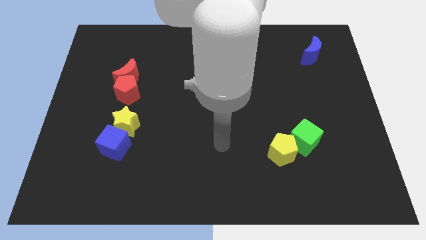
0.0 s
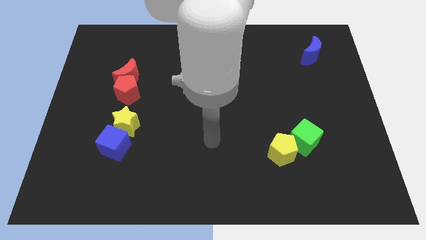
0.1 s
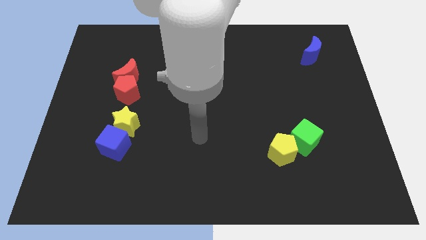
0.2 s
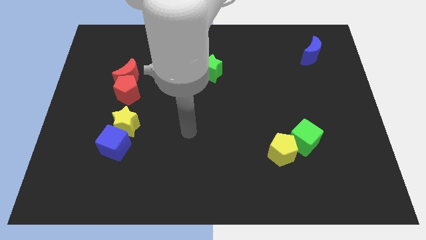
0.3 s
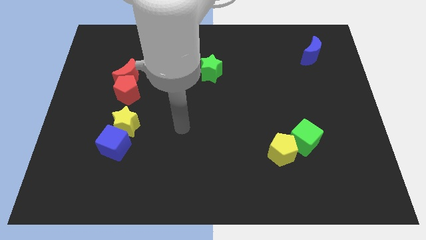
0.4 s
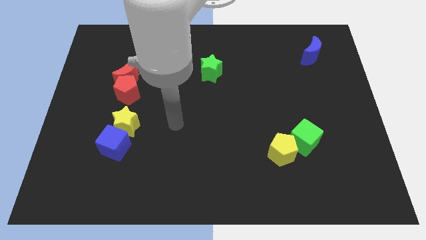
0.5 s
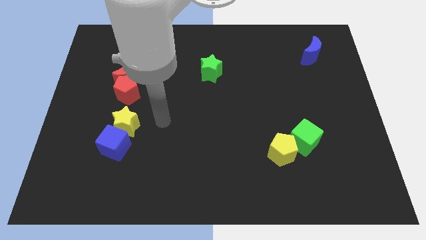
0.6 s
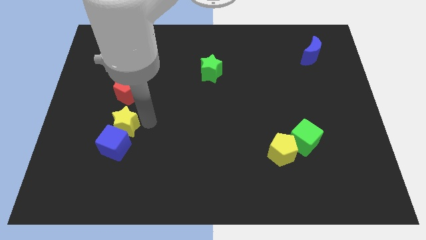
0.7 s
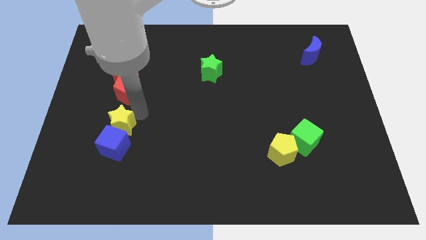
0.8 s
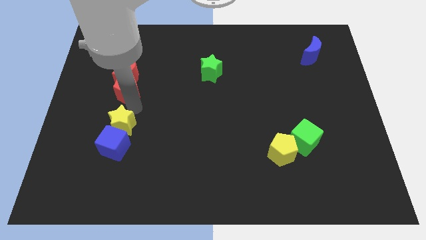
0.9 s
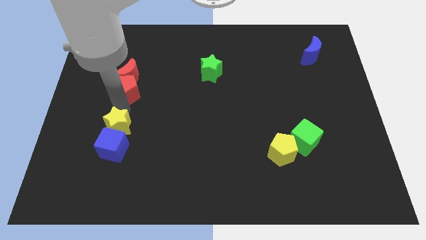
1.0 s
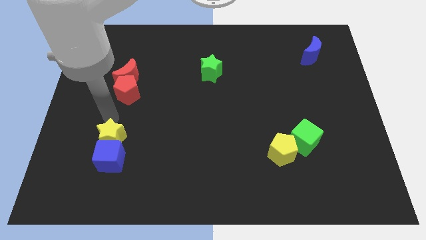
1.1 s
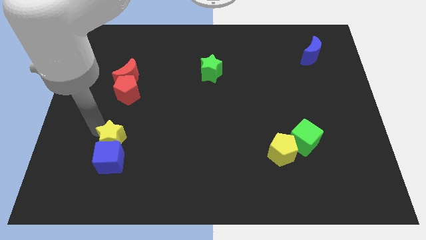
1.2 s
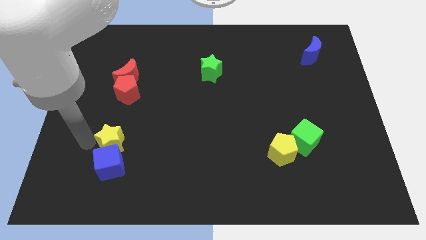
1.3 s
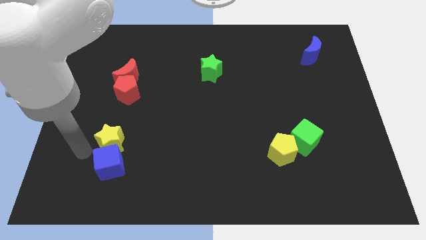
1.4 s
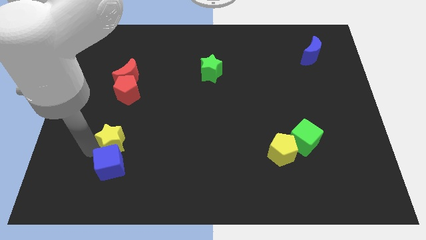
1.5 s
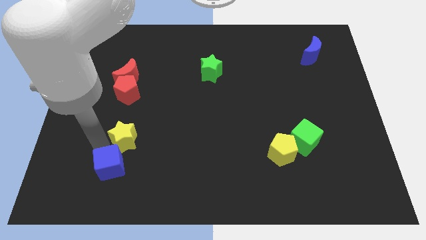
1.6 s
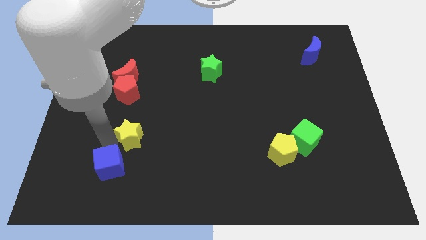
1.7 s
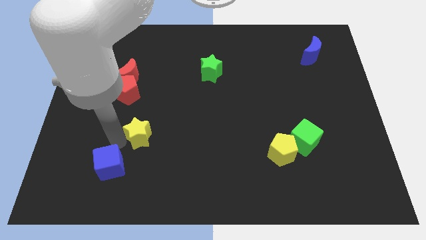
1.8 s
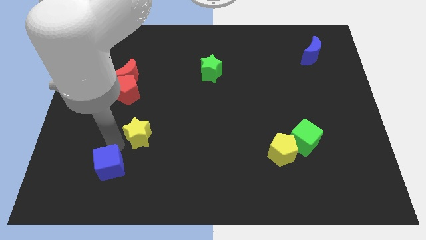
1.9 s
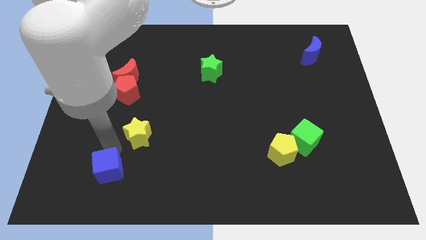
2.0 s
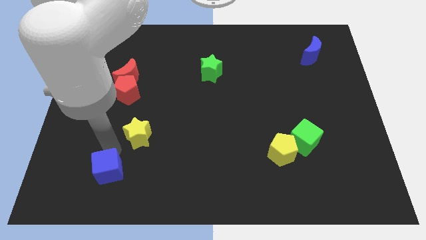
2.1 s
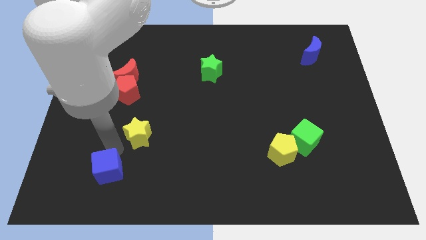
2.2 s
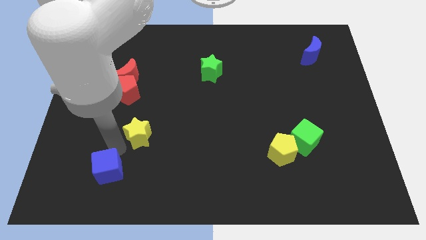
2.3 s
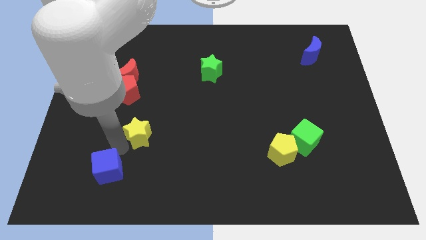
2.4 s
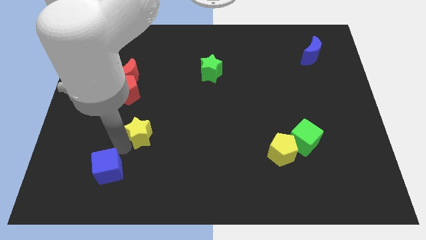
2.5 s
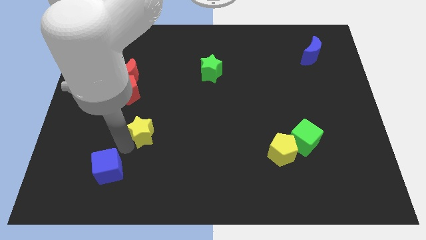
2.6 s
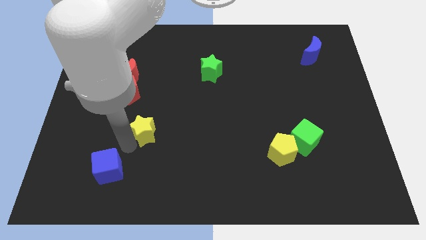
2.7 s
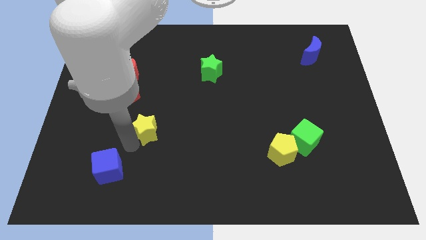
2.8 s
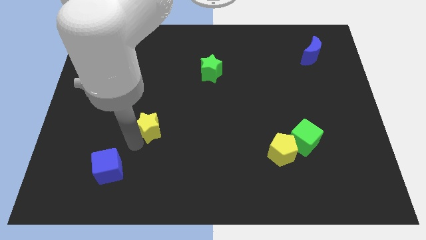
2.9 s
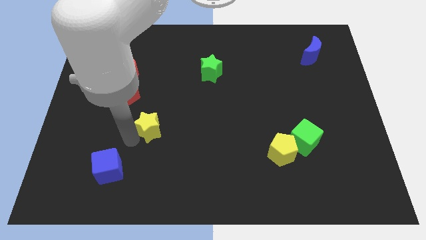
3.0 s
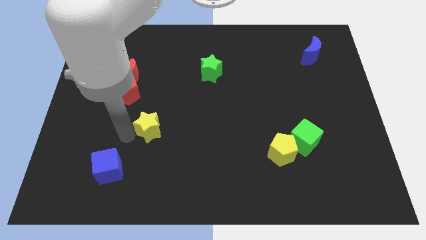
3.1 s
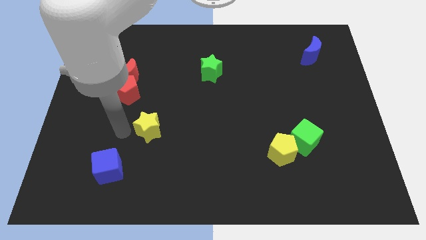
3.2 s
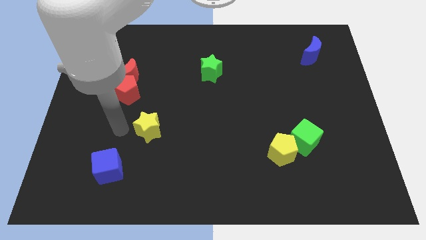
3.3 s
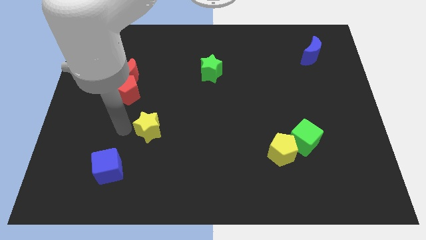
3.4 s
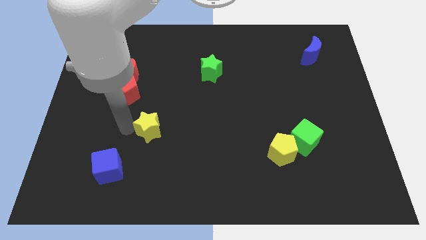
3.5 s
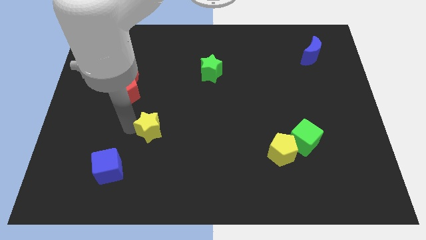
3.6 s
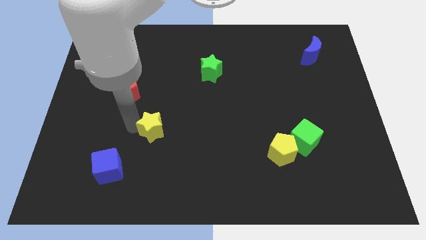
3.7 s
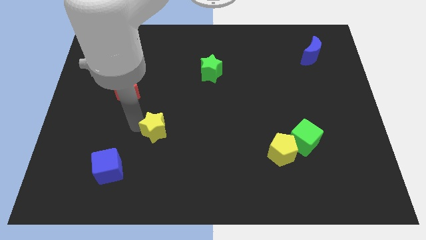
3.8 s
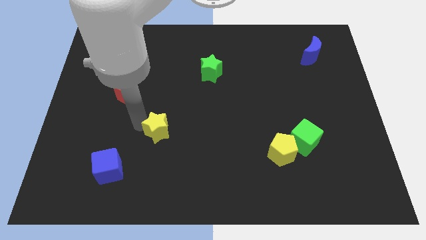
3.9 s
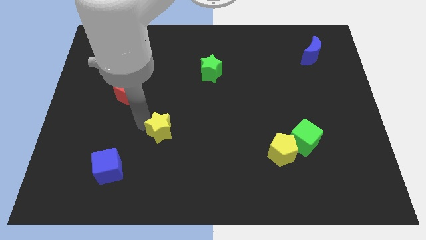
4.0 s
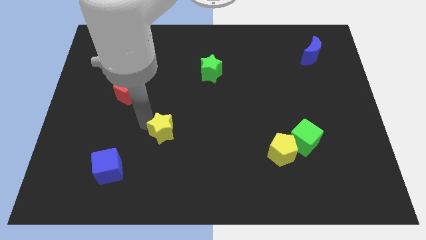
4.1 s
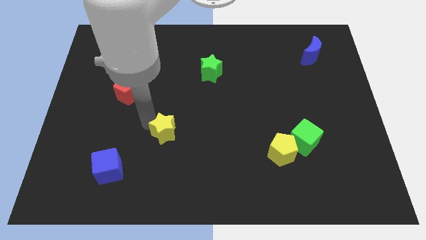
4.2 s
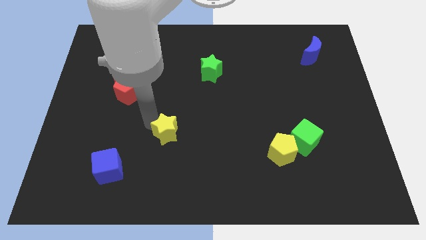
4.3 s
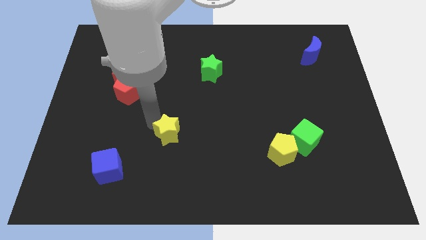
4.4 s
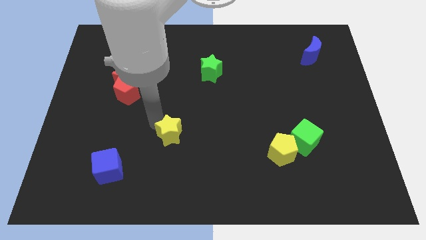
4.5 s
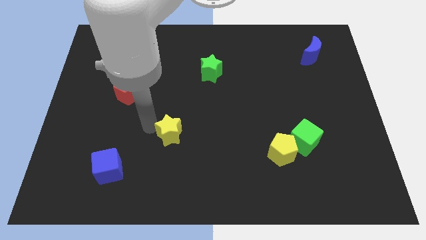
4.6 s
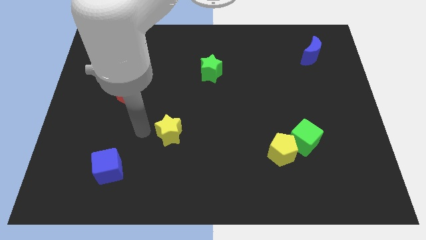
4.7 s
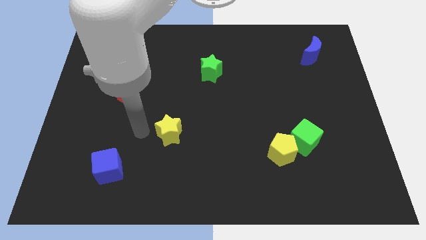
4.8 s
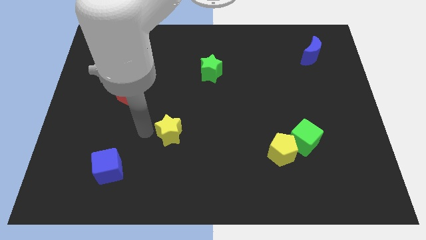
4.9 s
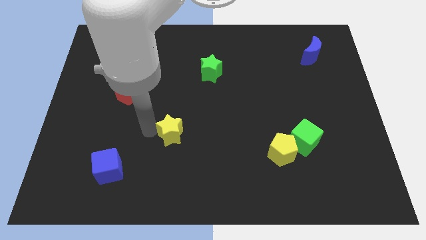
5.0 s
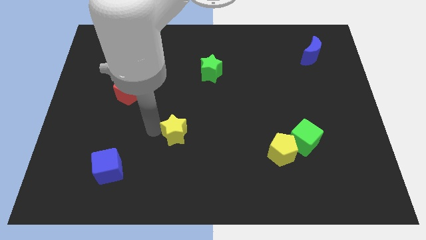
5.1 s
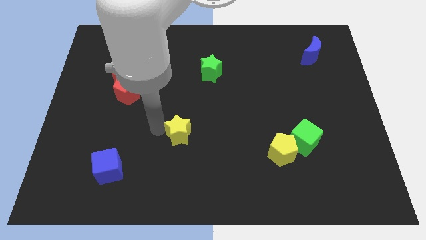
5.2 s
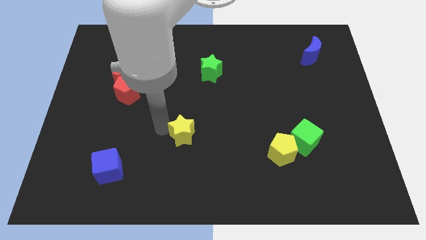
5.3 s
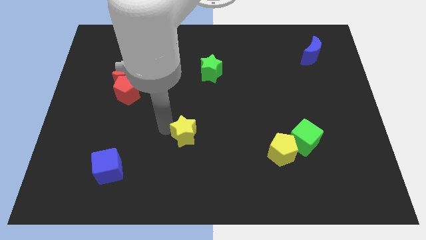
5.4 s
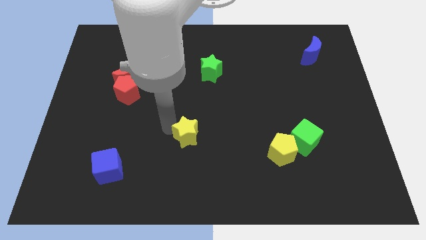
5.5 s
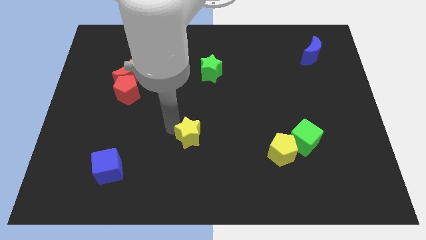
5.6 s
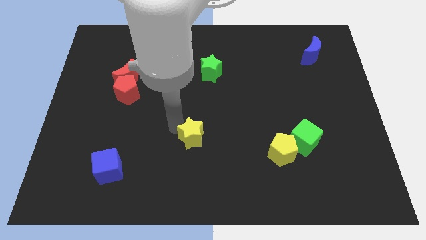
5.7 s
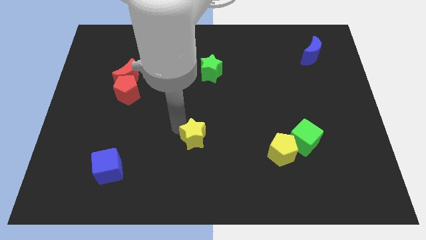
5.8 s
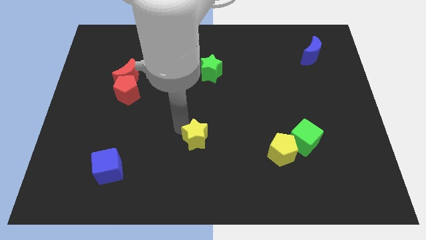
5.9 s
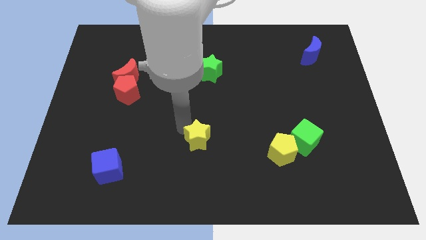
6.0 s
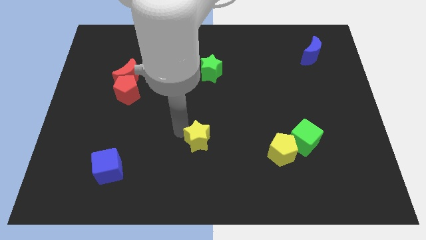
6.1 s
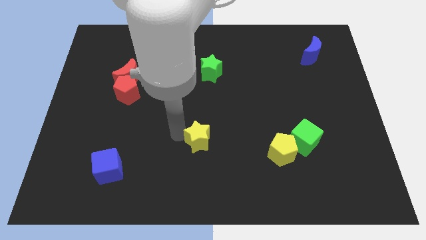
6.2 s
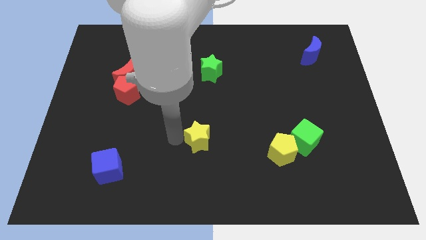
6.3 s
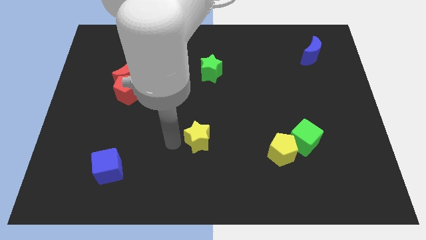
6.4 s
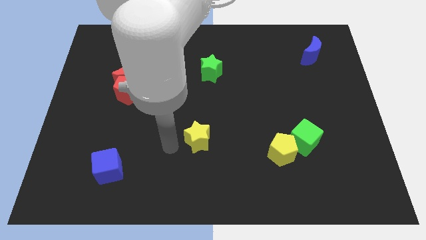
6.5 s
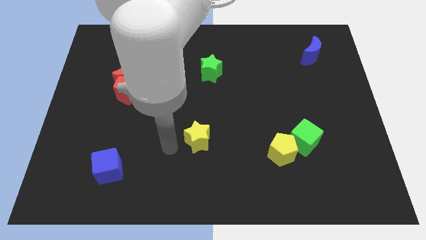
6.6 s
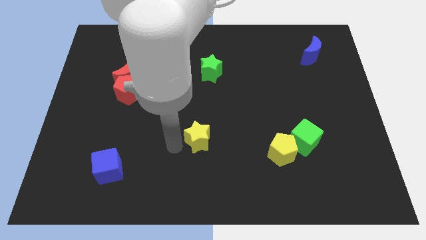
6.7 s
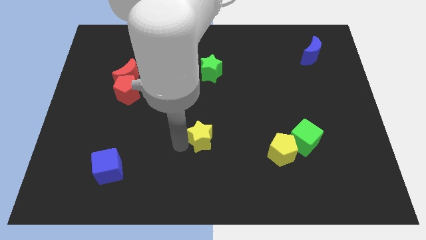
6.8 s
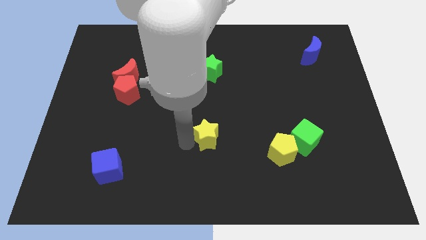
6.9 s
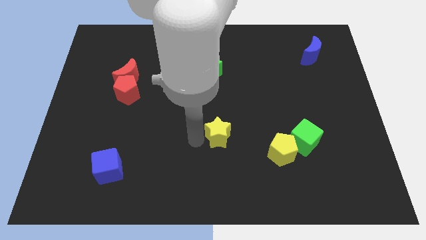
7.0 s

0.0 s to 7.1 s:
move the yellow star to the right

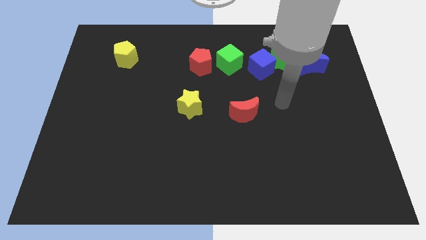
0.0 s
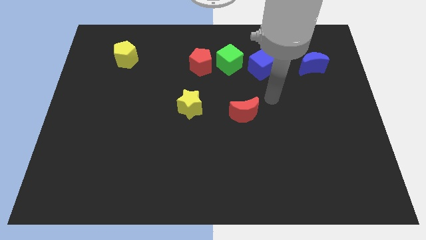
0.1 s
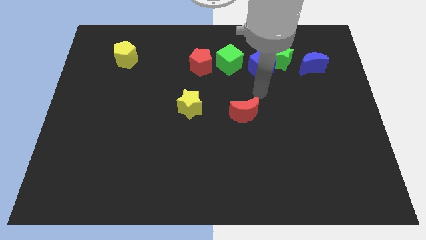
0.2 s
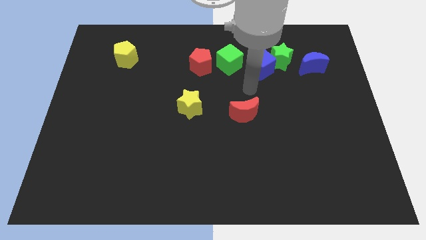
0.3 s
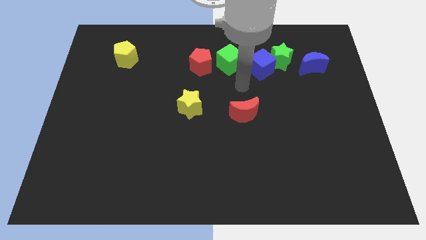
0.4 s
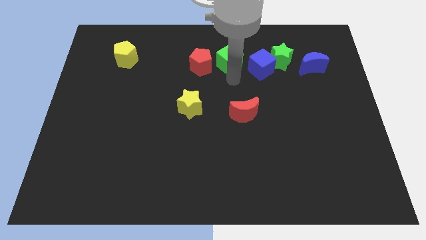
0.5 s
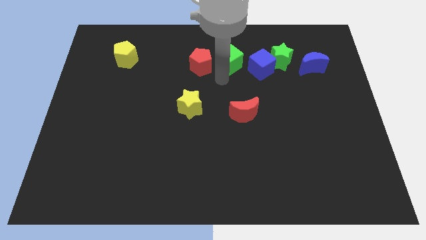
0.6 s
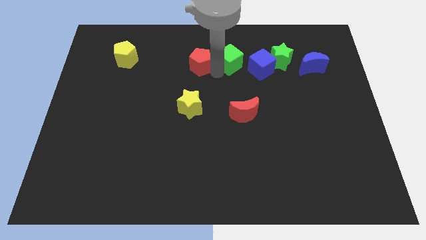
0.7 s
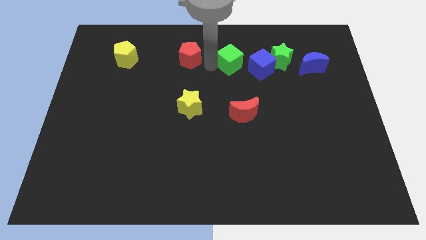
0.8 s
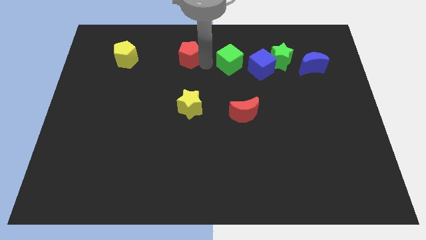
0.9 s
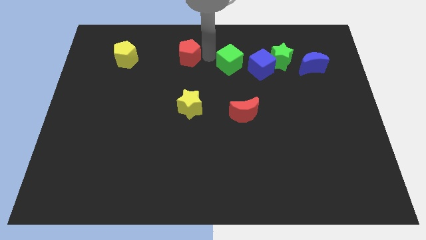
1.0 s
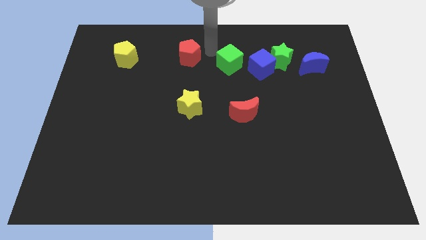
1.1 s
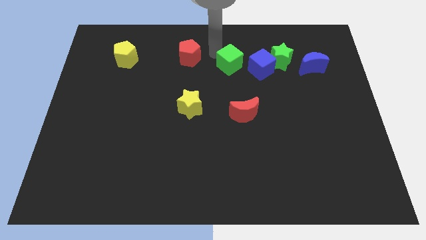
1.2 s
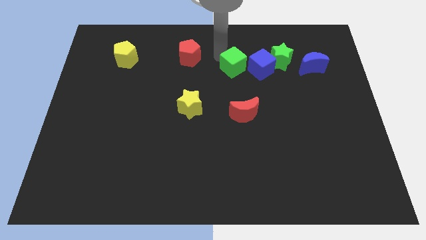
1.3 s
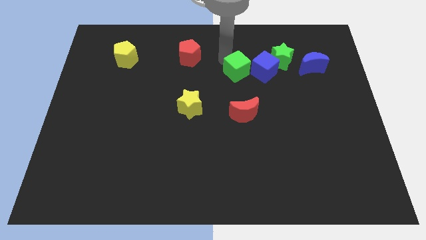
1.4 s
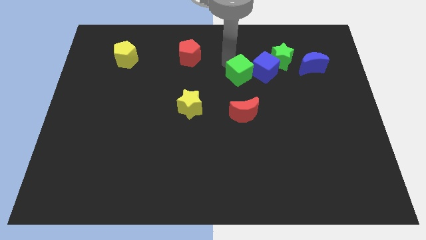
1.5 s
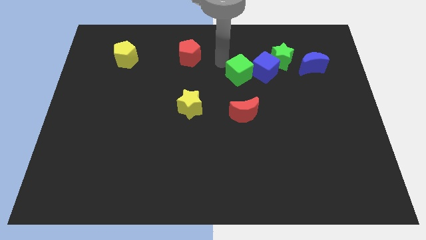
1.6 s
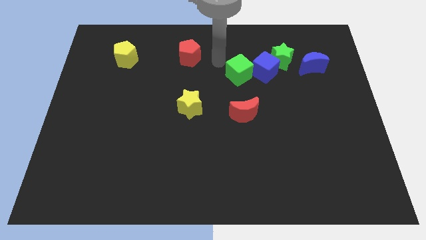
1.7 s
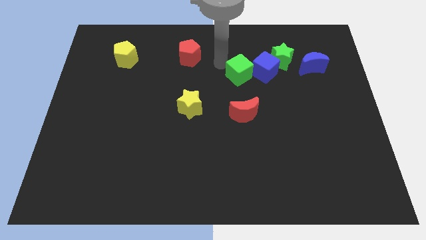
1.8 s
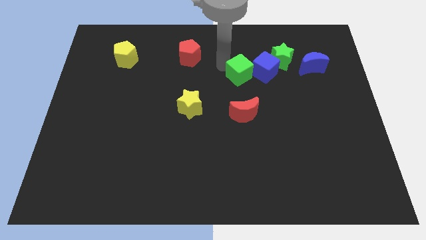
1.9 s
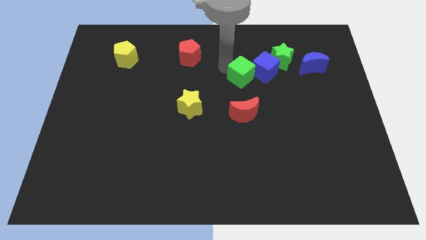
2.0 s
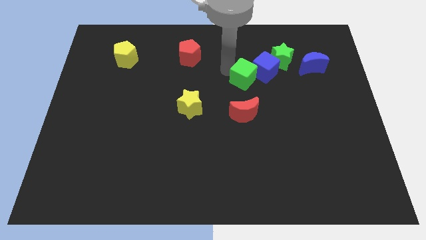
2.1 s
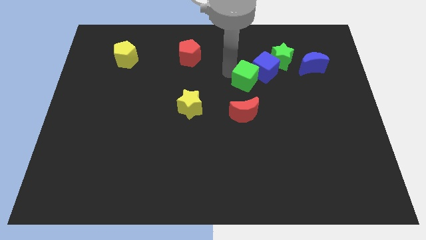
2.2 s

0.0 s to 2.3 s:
slide the green cube somewhat down and then to the right
